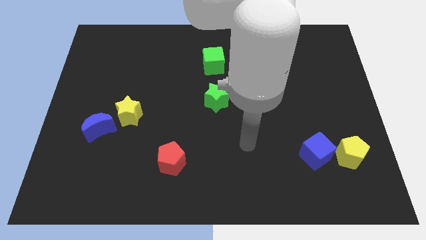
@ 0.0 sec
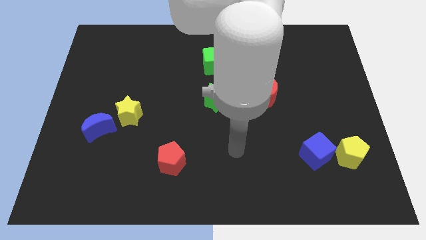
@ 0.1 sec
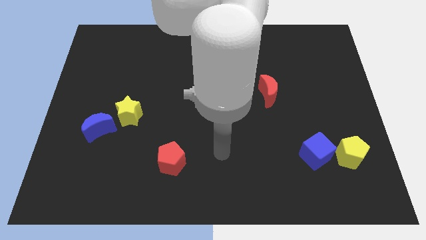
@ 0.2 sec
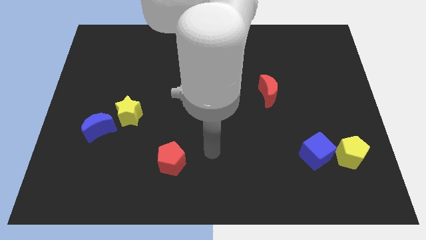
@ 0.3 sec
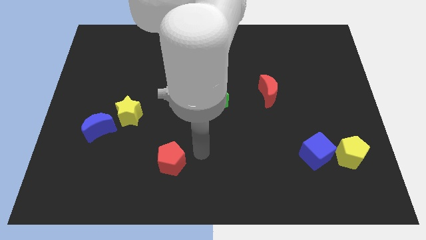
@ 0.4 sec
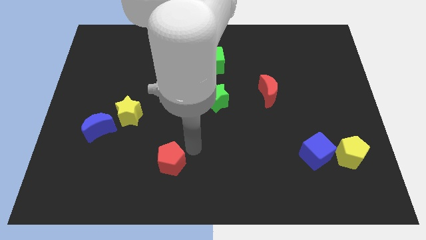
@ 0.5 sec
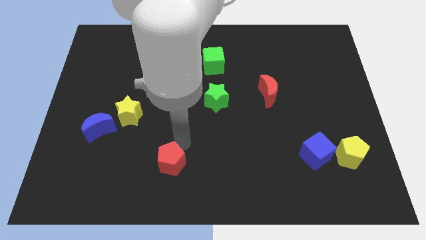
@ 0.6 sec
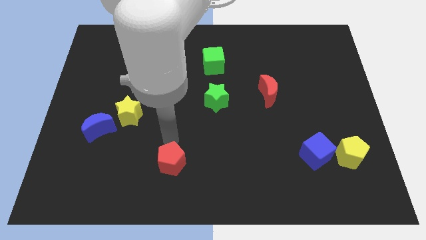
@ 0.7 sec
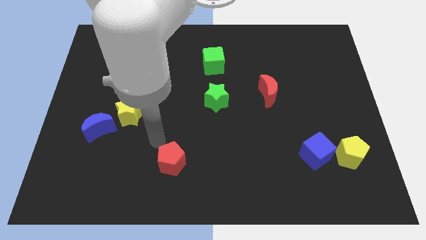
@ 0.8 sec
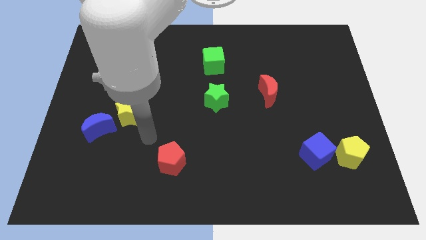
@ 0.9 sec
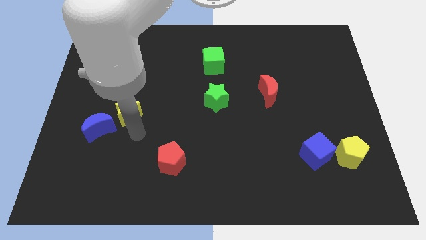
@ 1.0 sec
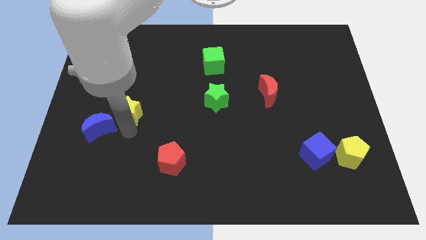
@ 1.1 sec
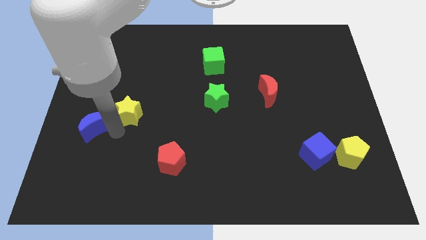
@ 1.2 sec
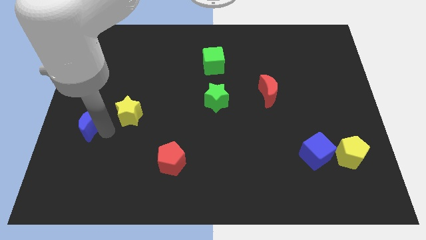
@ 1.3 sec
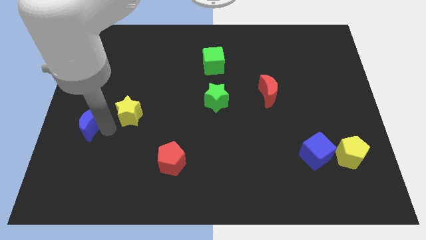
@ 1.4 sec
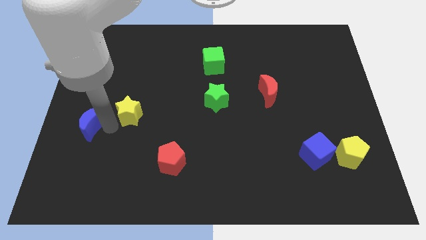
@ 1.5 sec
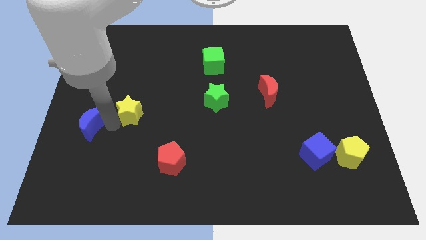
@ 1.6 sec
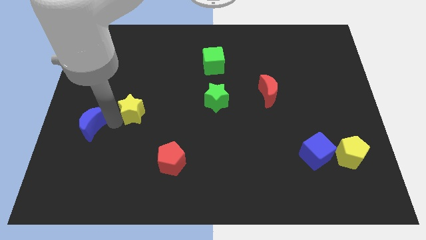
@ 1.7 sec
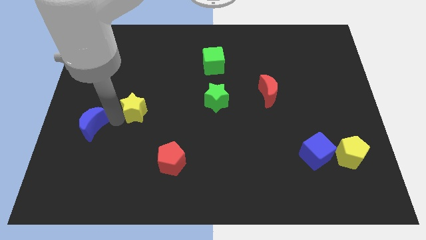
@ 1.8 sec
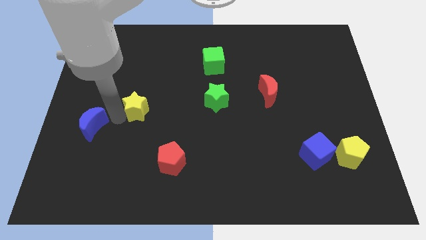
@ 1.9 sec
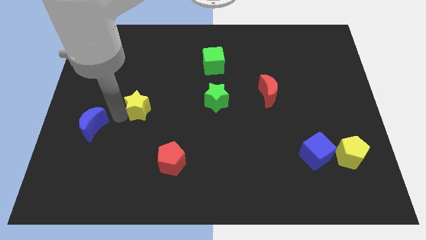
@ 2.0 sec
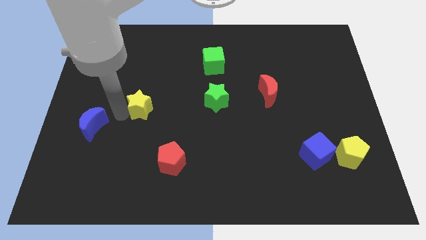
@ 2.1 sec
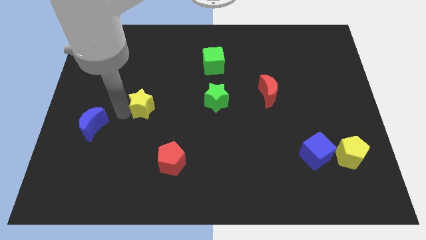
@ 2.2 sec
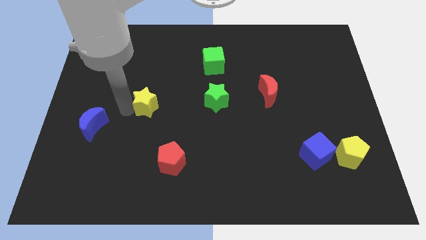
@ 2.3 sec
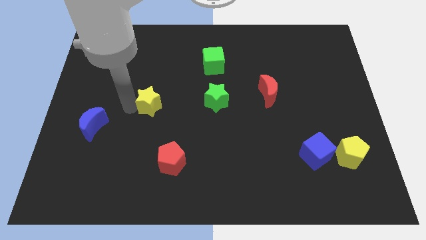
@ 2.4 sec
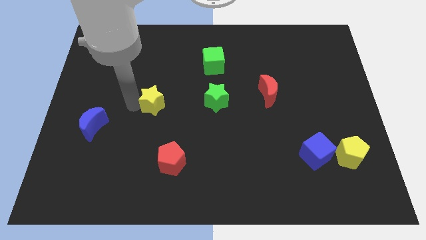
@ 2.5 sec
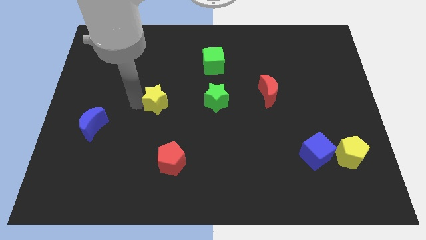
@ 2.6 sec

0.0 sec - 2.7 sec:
push the yellow star upwards and then right somewhat

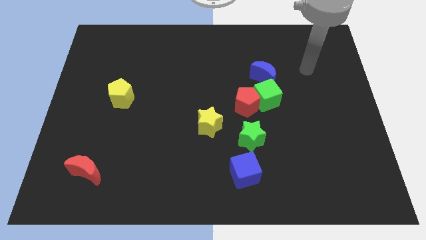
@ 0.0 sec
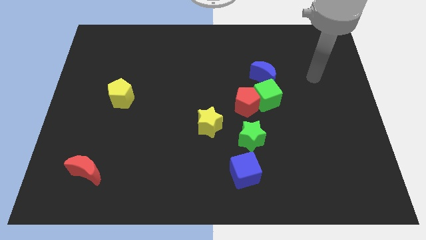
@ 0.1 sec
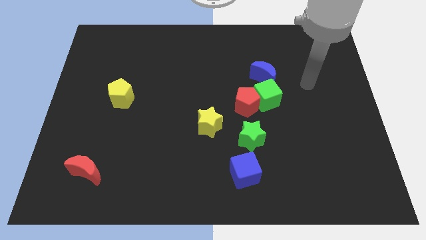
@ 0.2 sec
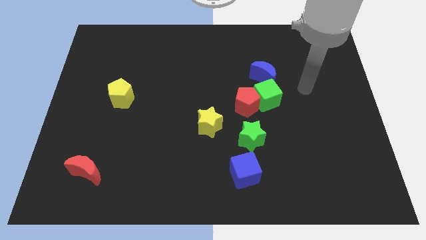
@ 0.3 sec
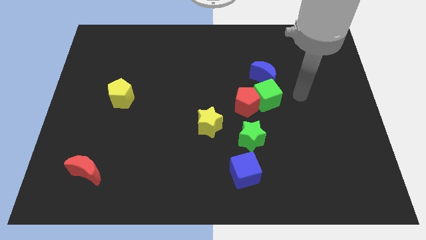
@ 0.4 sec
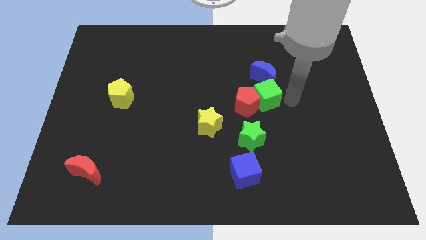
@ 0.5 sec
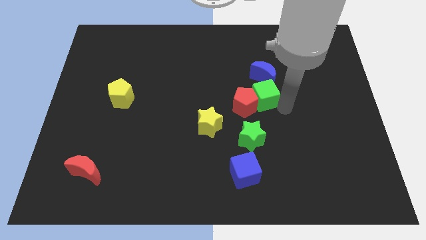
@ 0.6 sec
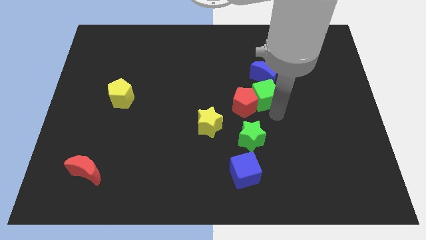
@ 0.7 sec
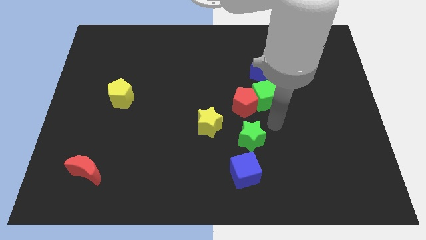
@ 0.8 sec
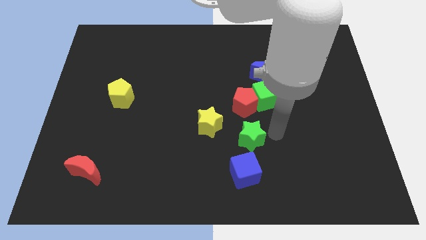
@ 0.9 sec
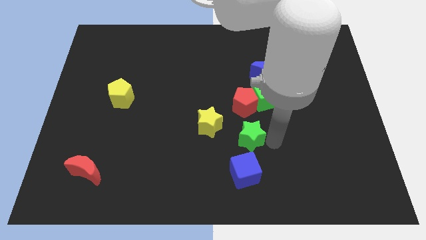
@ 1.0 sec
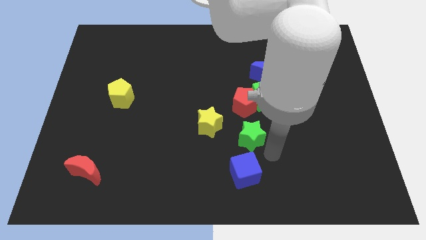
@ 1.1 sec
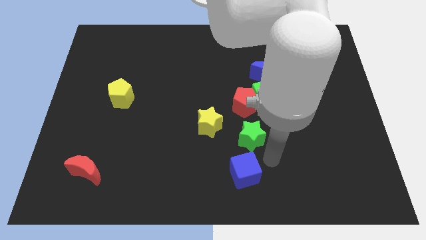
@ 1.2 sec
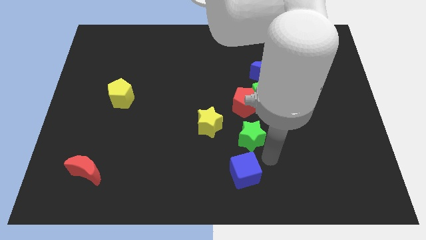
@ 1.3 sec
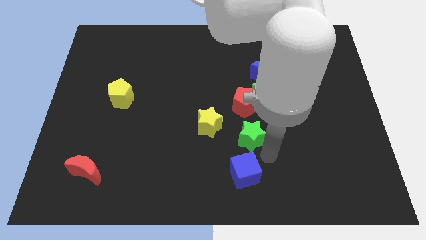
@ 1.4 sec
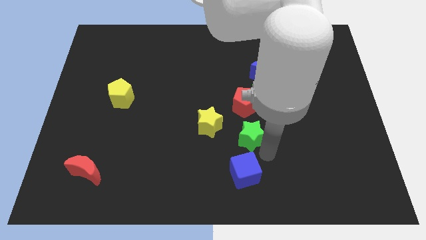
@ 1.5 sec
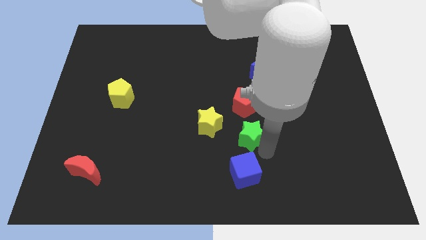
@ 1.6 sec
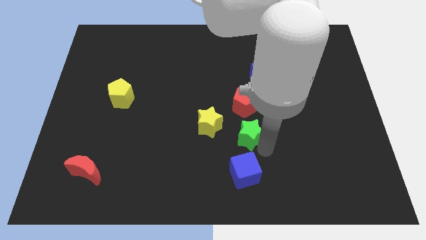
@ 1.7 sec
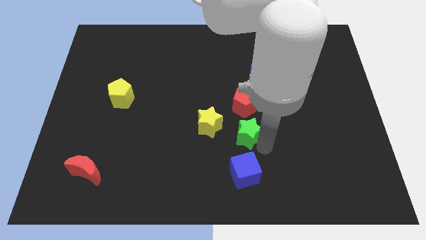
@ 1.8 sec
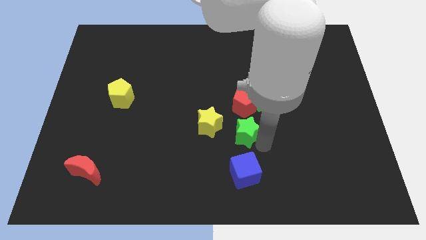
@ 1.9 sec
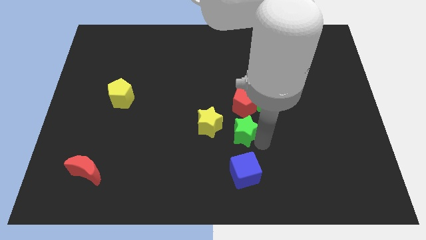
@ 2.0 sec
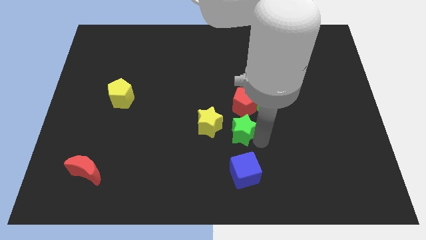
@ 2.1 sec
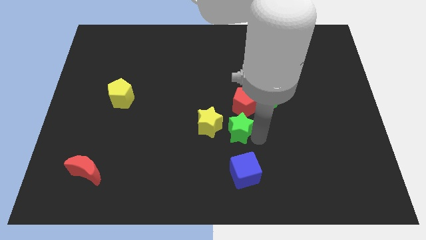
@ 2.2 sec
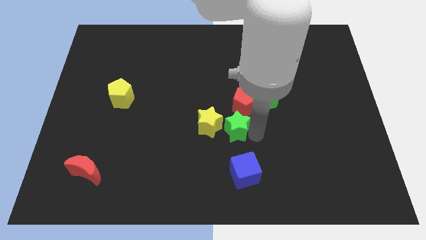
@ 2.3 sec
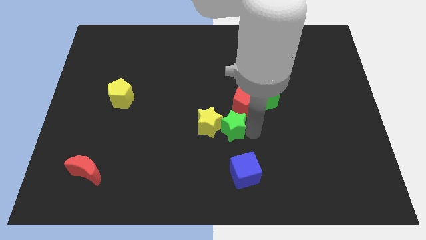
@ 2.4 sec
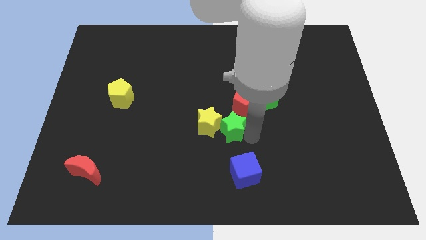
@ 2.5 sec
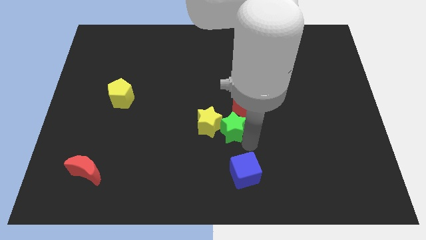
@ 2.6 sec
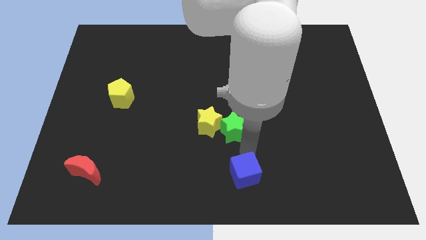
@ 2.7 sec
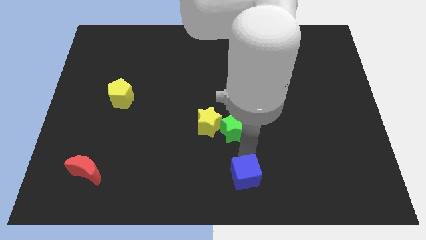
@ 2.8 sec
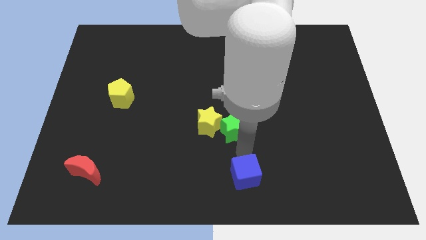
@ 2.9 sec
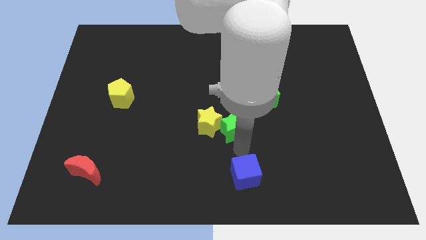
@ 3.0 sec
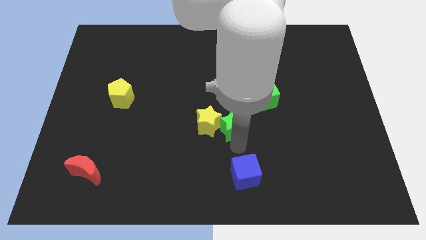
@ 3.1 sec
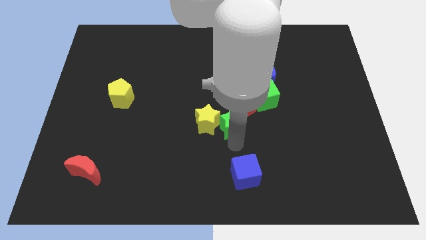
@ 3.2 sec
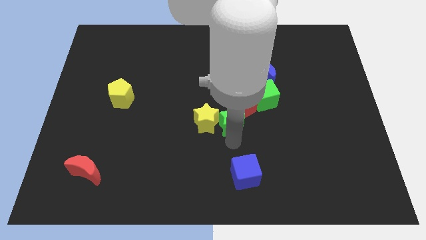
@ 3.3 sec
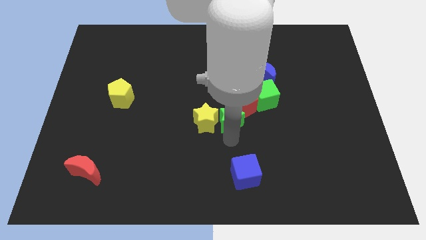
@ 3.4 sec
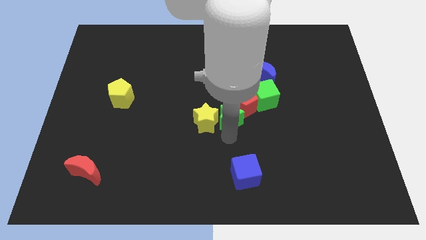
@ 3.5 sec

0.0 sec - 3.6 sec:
slightly push the green star upwards and to the left diagonally

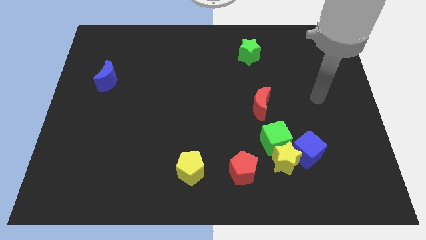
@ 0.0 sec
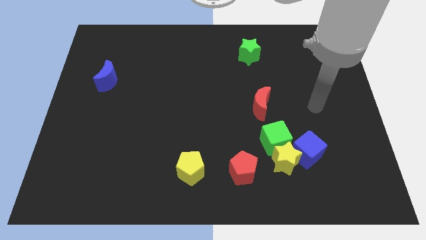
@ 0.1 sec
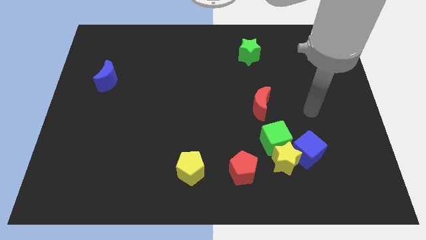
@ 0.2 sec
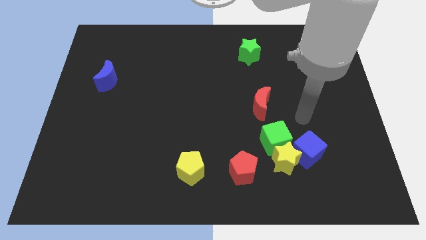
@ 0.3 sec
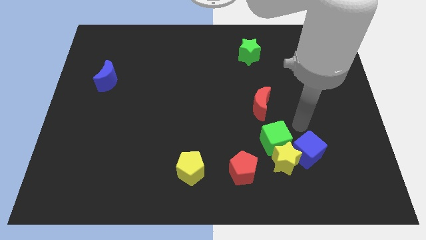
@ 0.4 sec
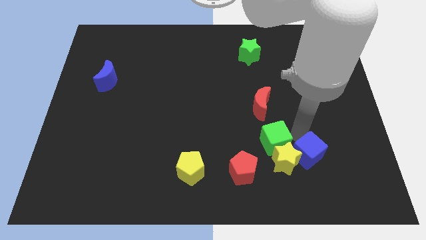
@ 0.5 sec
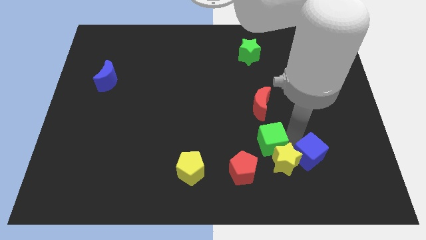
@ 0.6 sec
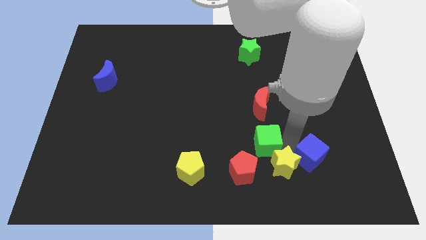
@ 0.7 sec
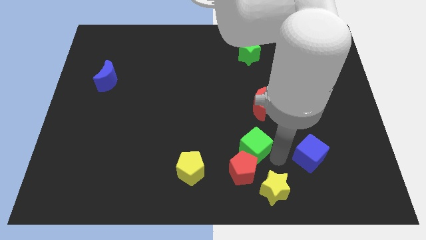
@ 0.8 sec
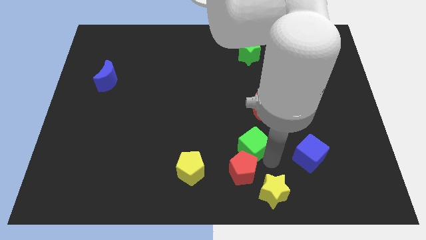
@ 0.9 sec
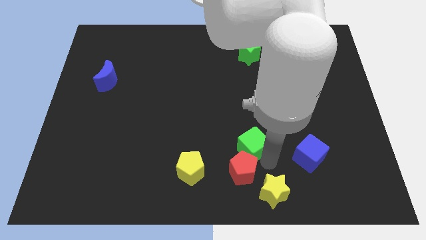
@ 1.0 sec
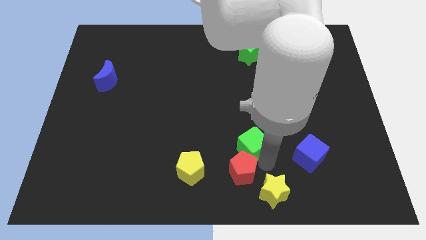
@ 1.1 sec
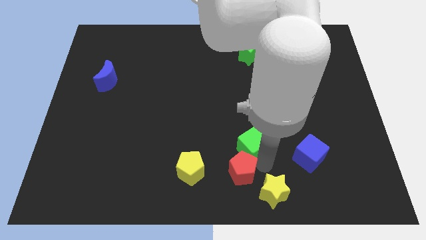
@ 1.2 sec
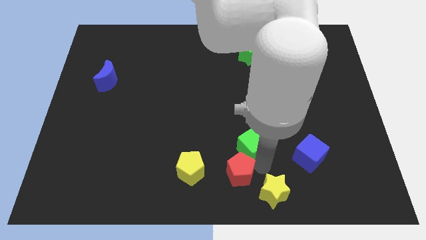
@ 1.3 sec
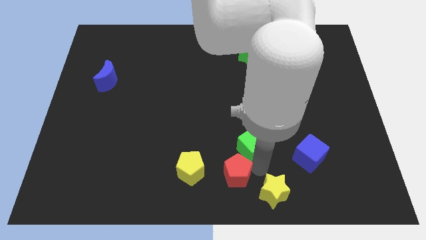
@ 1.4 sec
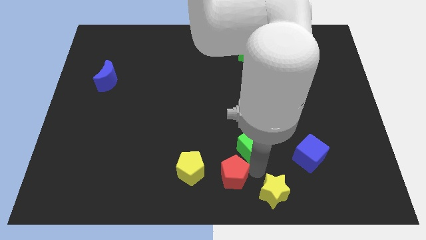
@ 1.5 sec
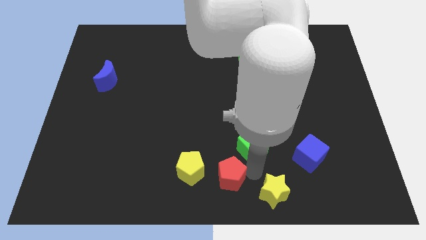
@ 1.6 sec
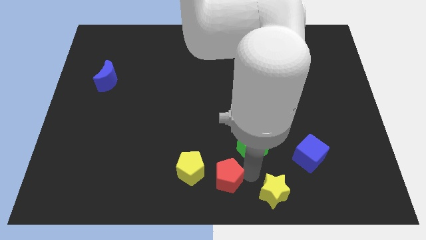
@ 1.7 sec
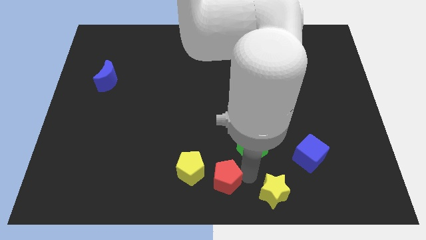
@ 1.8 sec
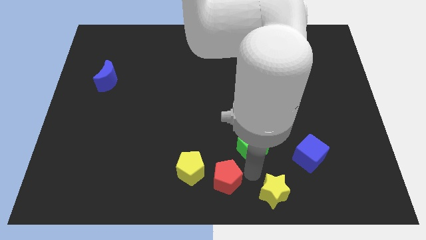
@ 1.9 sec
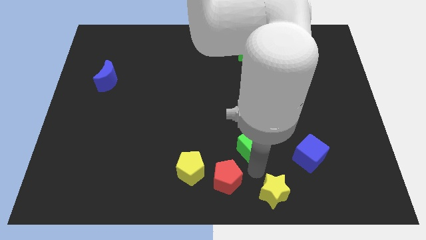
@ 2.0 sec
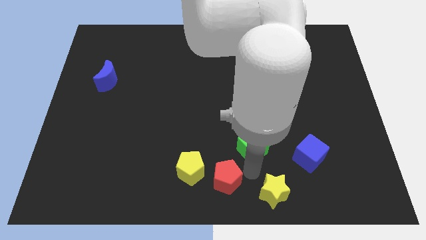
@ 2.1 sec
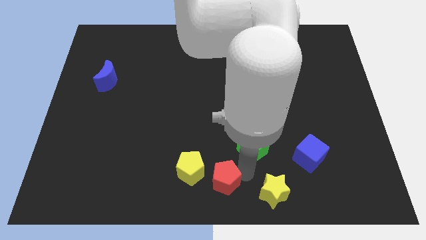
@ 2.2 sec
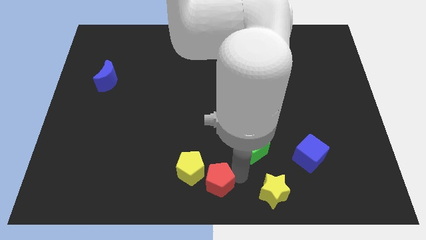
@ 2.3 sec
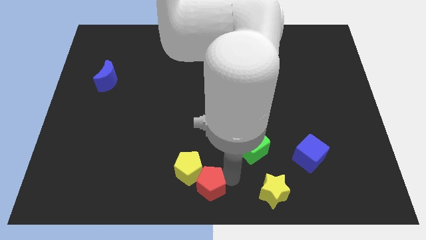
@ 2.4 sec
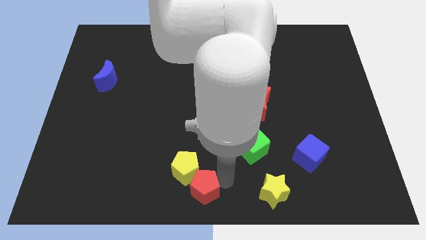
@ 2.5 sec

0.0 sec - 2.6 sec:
slightly move the red pentagon left
